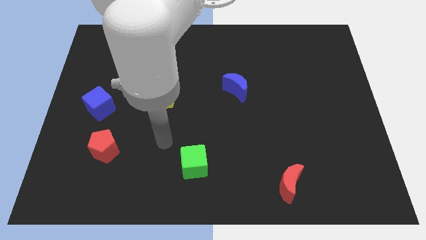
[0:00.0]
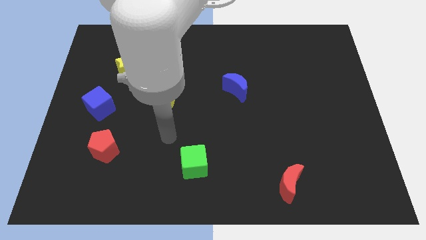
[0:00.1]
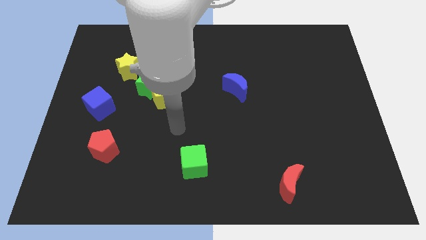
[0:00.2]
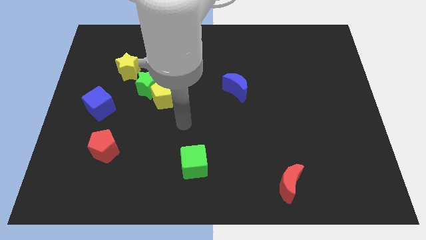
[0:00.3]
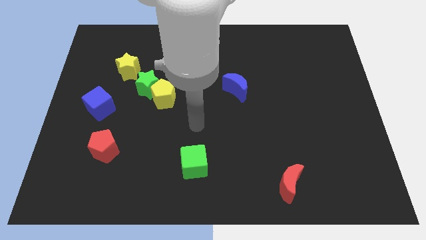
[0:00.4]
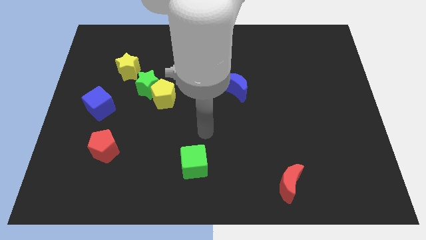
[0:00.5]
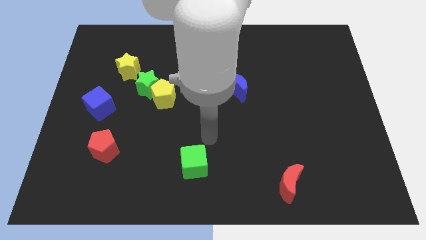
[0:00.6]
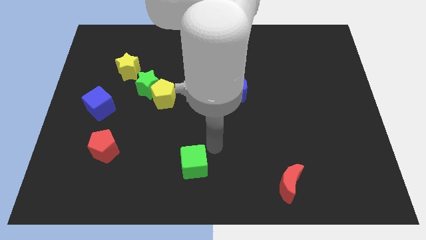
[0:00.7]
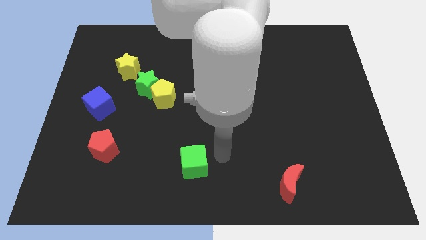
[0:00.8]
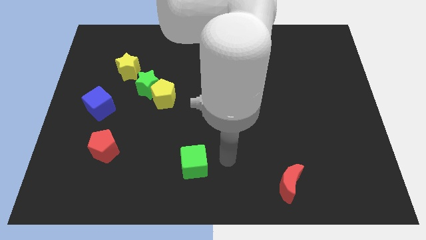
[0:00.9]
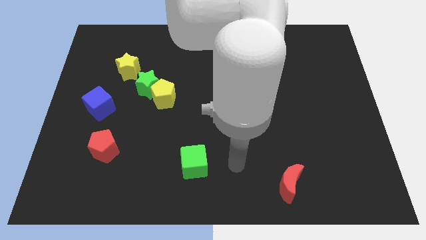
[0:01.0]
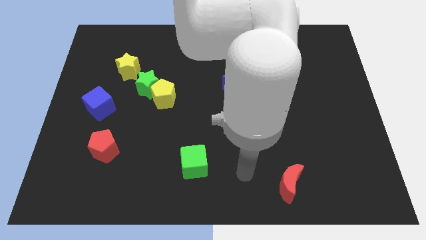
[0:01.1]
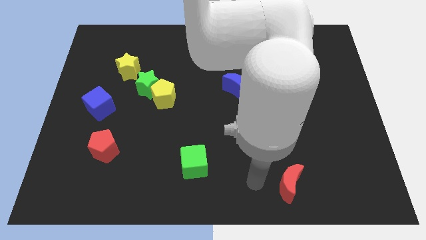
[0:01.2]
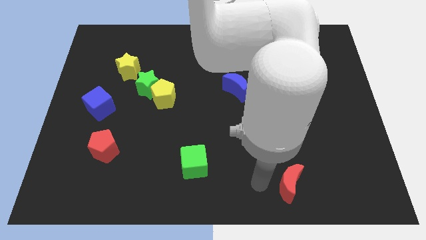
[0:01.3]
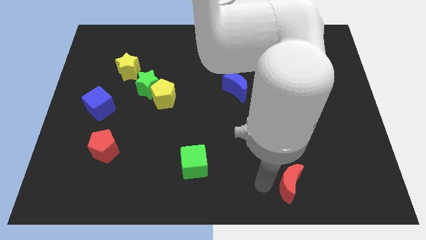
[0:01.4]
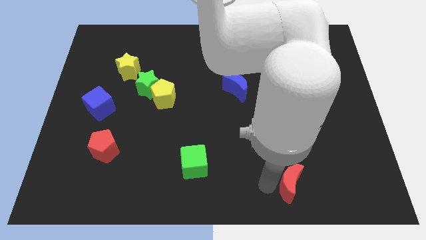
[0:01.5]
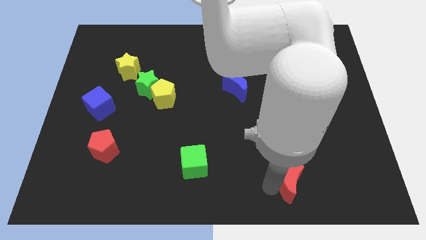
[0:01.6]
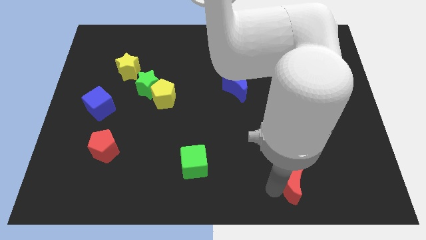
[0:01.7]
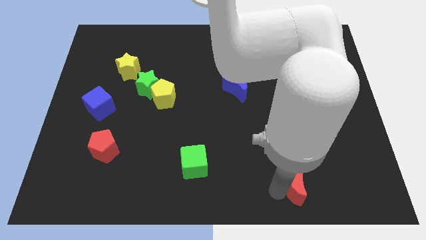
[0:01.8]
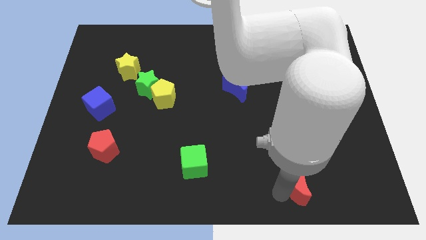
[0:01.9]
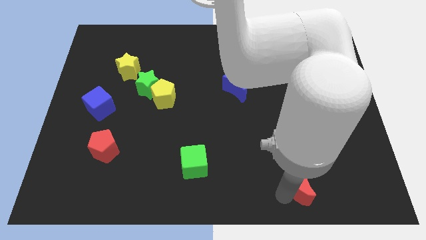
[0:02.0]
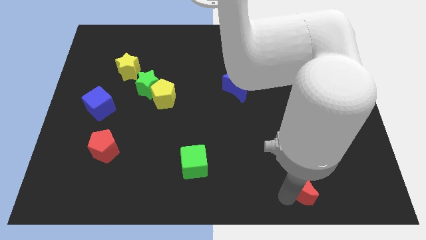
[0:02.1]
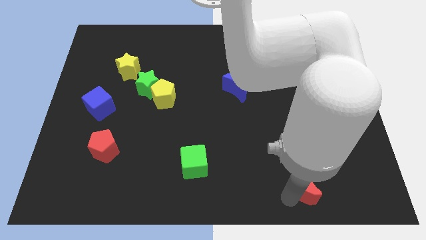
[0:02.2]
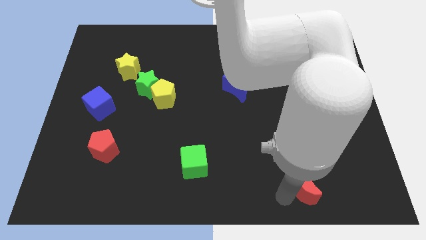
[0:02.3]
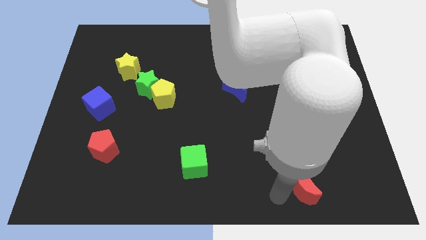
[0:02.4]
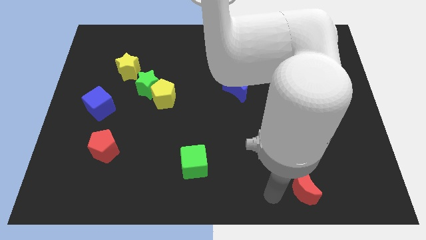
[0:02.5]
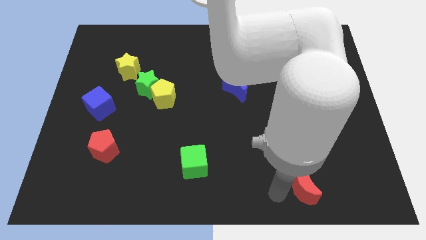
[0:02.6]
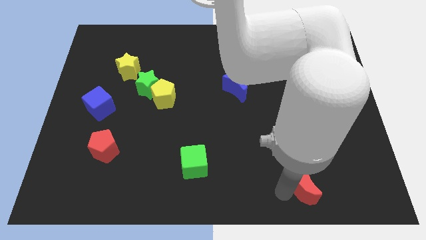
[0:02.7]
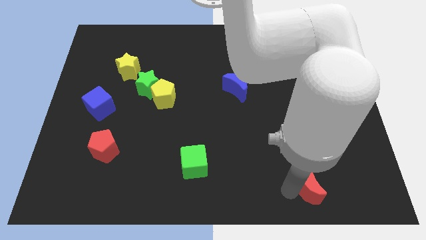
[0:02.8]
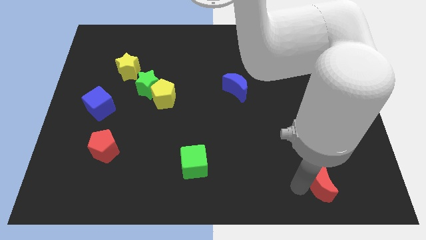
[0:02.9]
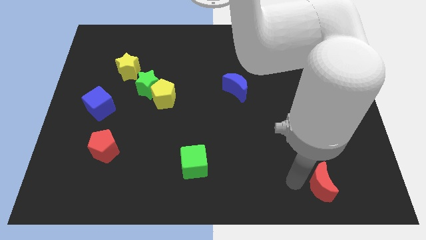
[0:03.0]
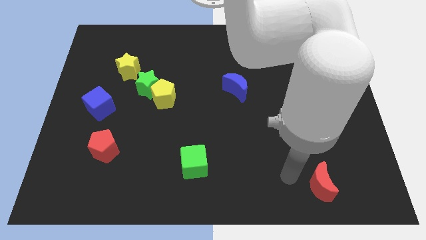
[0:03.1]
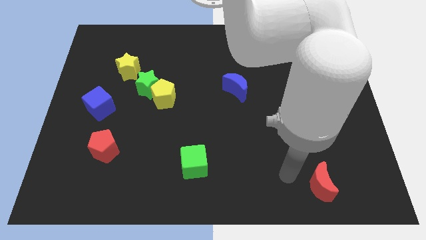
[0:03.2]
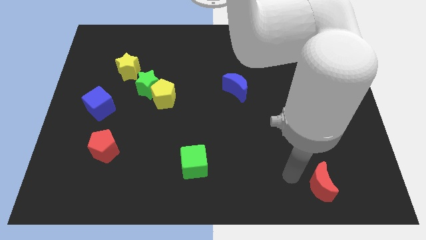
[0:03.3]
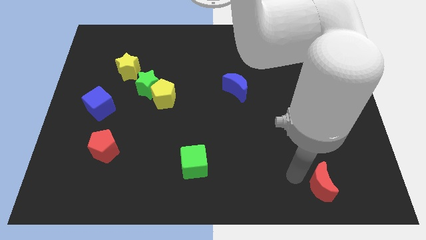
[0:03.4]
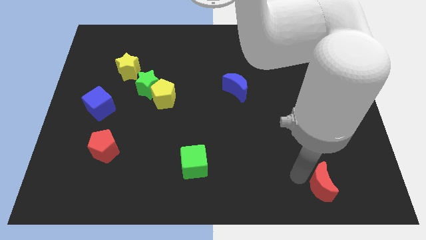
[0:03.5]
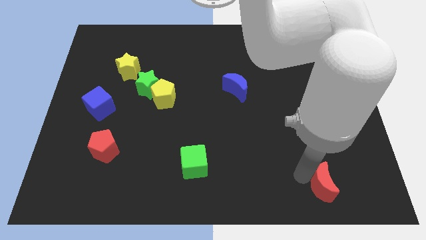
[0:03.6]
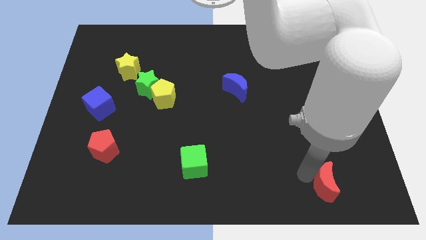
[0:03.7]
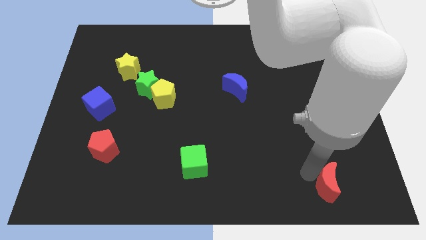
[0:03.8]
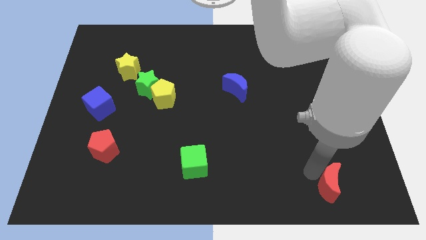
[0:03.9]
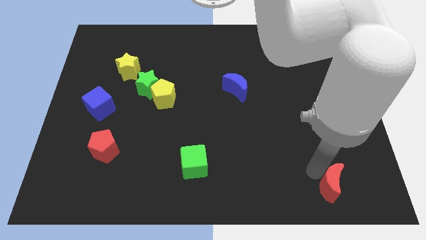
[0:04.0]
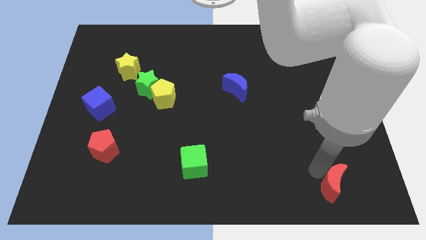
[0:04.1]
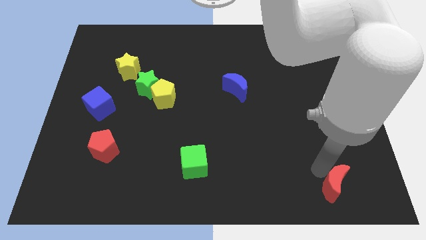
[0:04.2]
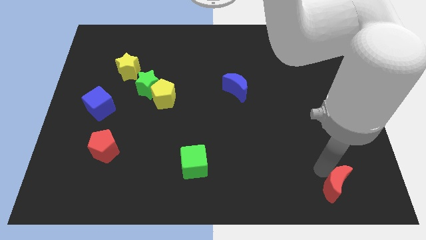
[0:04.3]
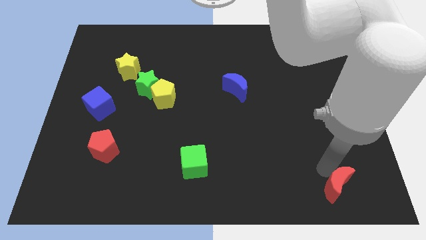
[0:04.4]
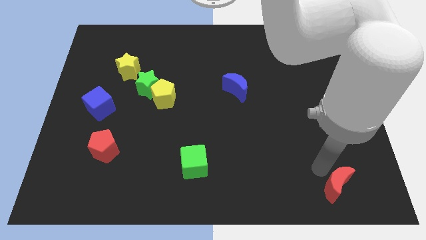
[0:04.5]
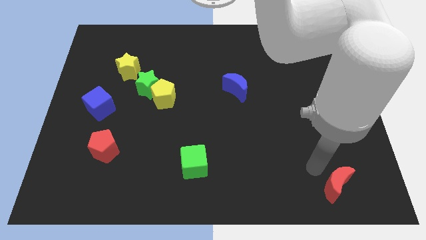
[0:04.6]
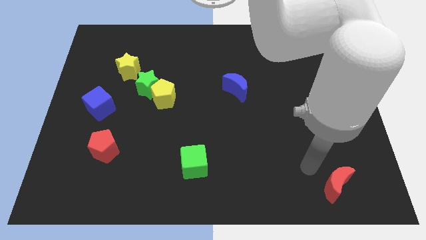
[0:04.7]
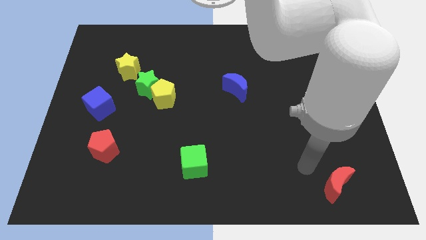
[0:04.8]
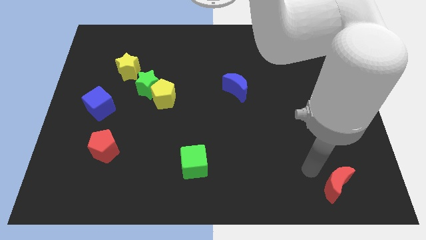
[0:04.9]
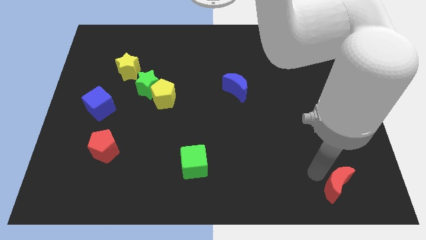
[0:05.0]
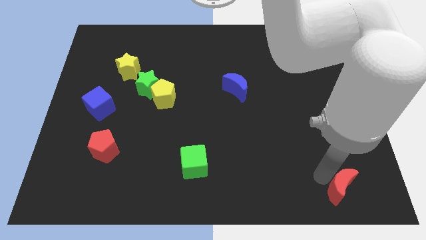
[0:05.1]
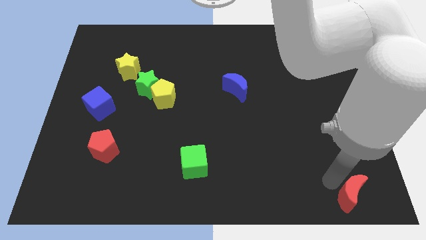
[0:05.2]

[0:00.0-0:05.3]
push the red moon to the bottom right corner

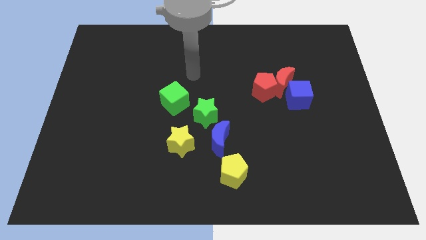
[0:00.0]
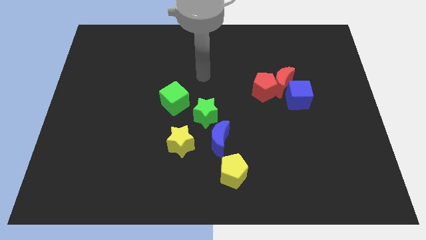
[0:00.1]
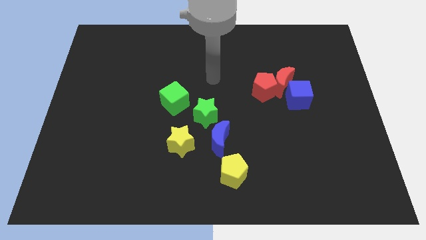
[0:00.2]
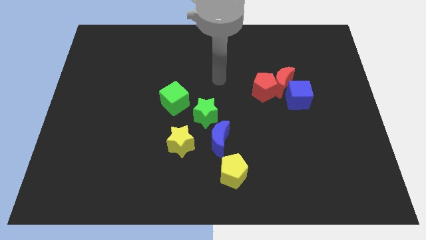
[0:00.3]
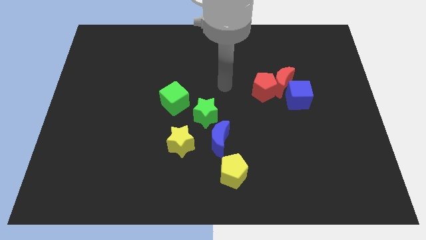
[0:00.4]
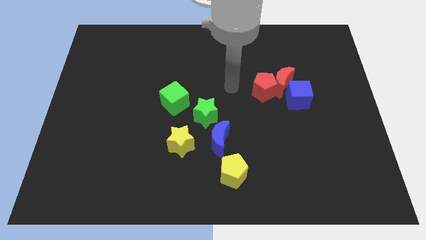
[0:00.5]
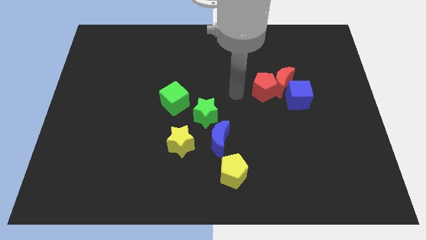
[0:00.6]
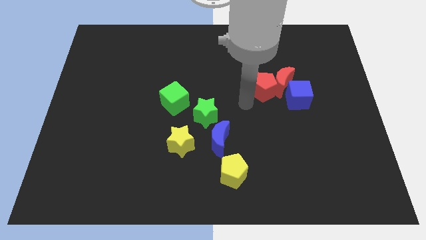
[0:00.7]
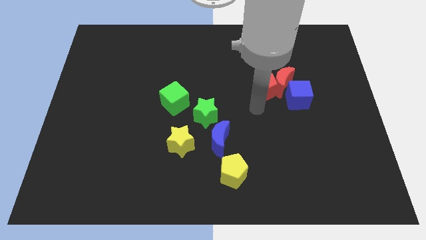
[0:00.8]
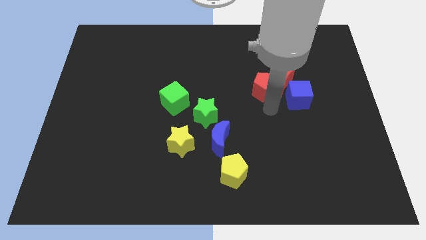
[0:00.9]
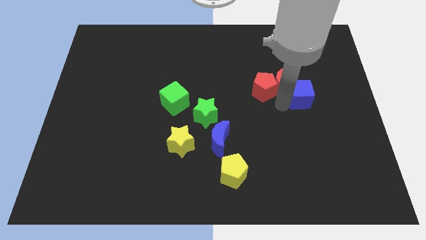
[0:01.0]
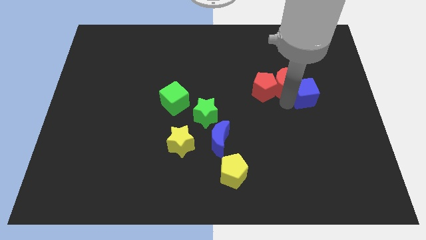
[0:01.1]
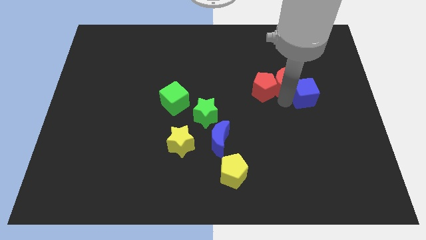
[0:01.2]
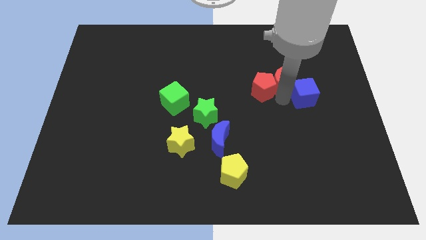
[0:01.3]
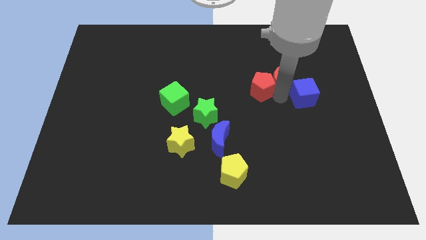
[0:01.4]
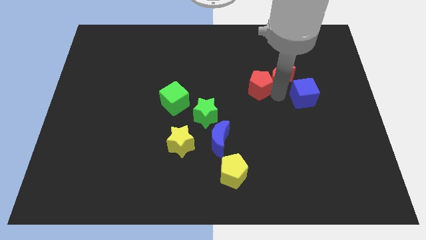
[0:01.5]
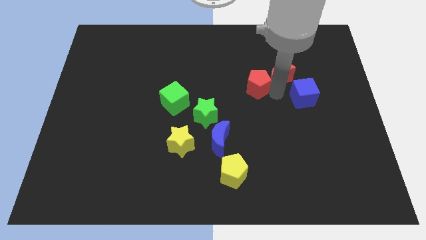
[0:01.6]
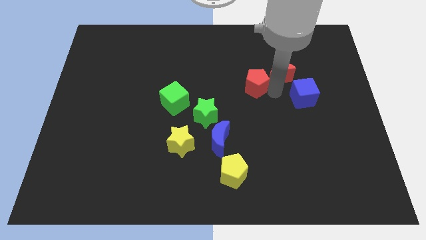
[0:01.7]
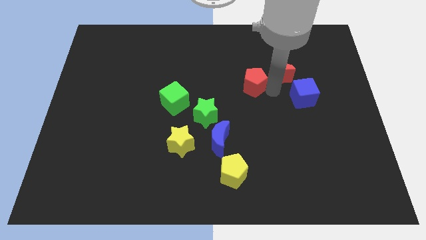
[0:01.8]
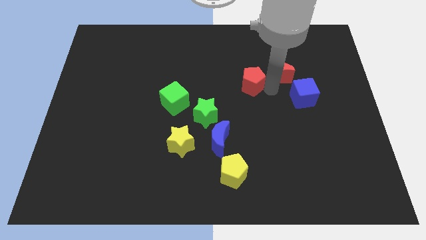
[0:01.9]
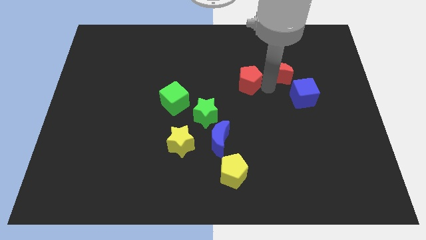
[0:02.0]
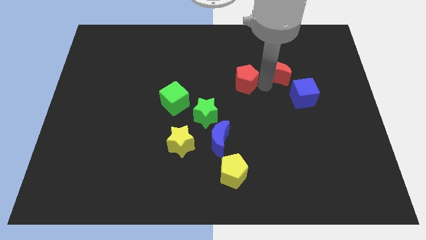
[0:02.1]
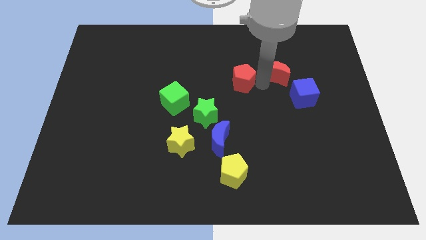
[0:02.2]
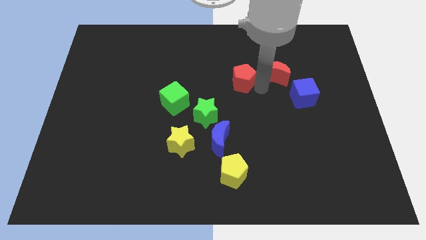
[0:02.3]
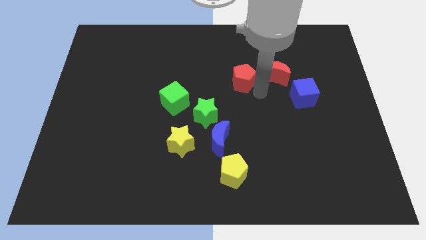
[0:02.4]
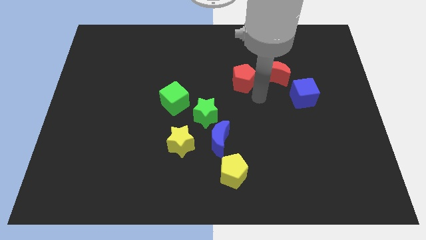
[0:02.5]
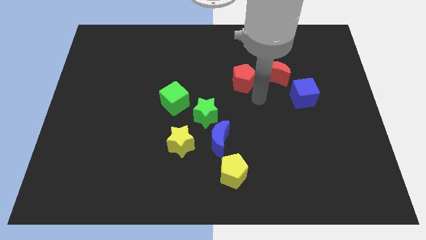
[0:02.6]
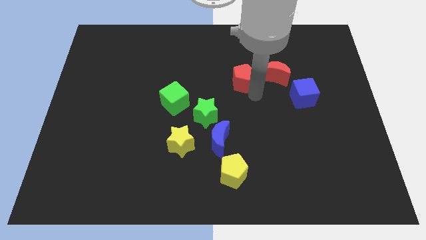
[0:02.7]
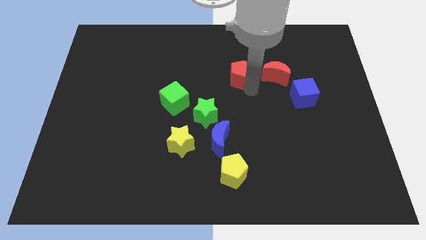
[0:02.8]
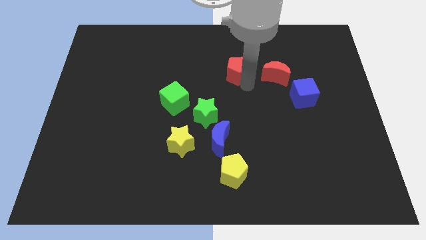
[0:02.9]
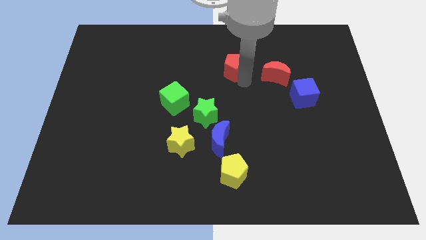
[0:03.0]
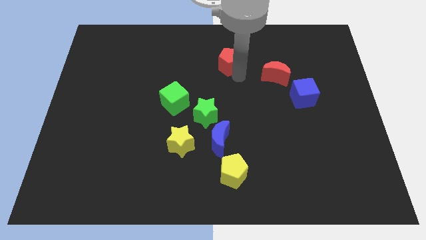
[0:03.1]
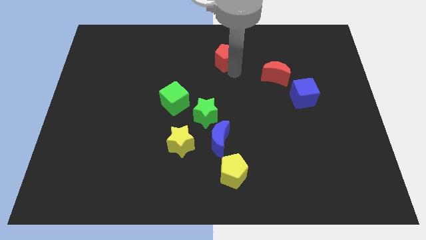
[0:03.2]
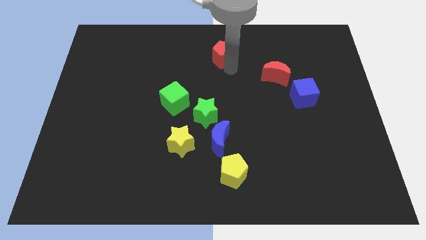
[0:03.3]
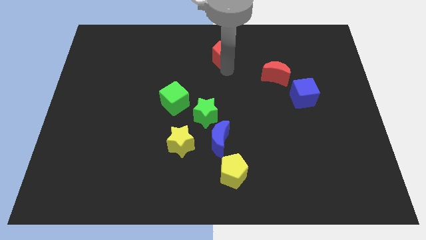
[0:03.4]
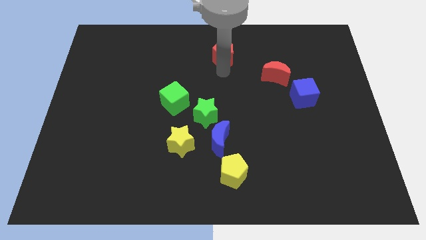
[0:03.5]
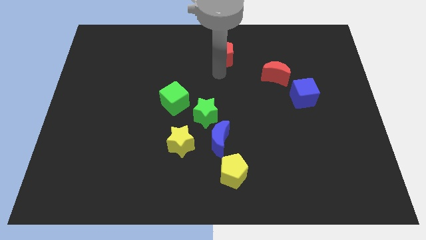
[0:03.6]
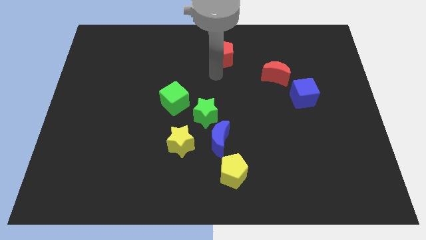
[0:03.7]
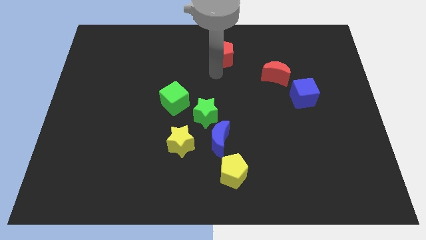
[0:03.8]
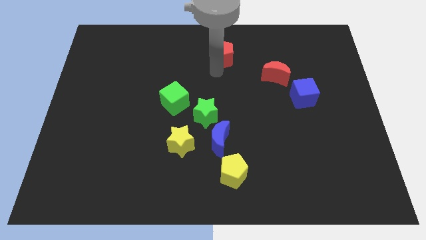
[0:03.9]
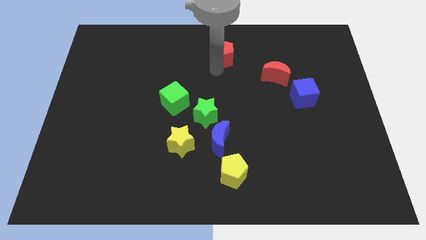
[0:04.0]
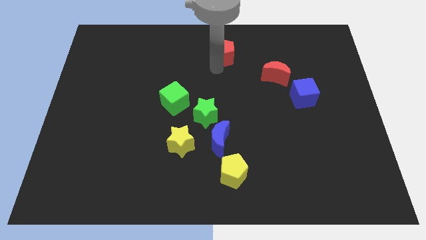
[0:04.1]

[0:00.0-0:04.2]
slide the red pentagon to the towards your base
